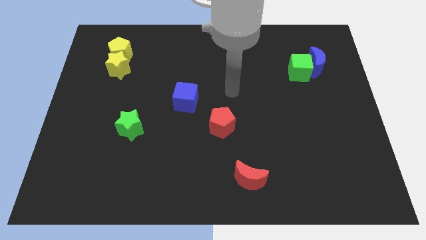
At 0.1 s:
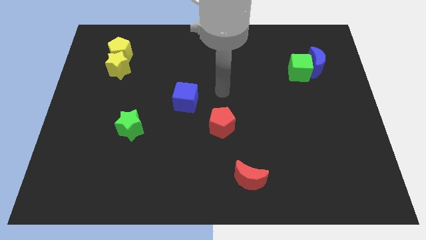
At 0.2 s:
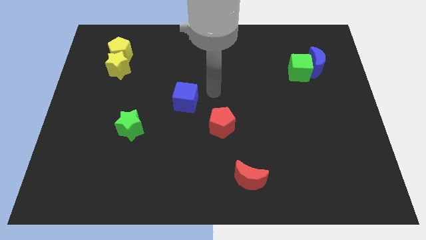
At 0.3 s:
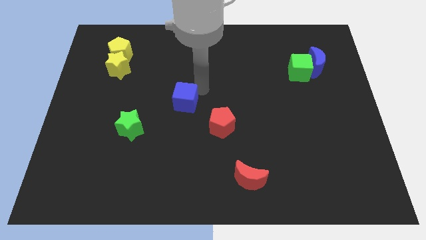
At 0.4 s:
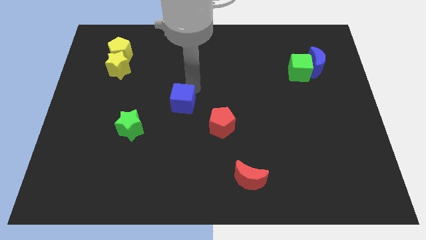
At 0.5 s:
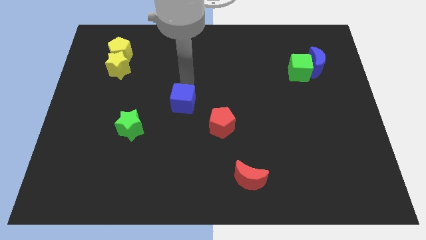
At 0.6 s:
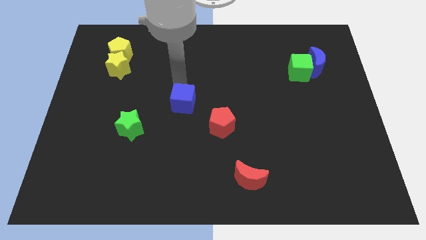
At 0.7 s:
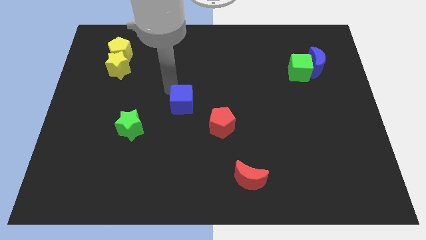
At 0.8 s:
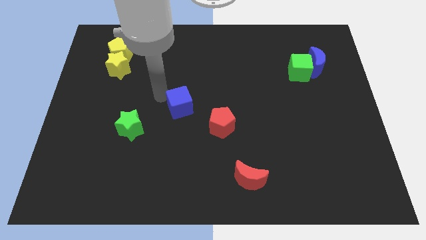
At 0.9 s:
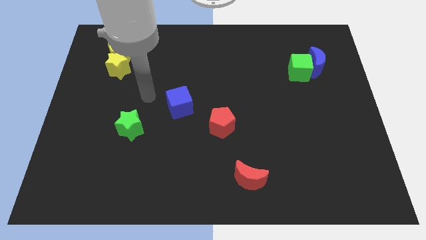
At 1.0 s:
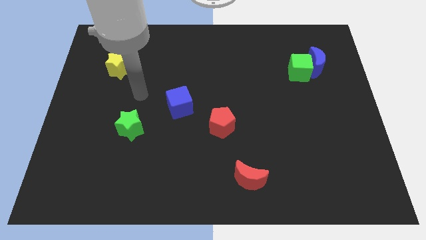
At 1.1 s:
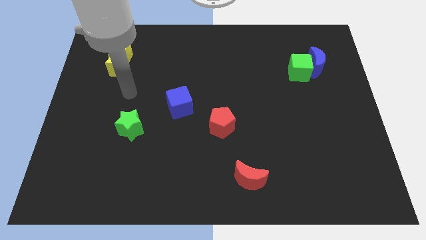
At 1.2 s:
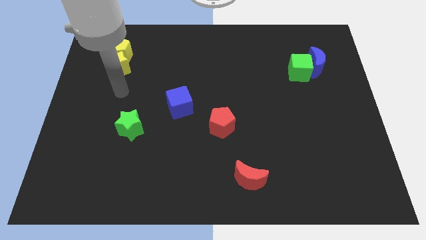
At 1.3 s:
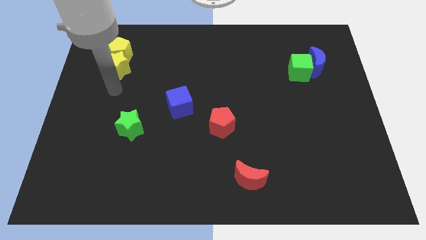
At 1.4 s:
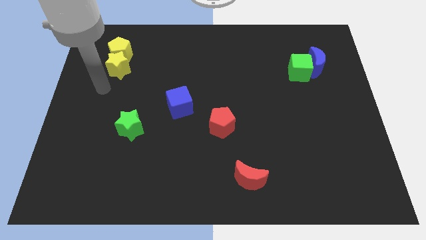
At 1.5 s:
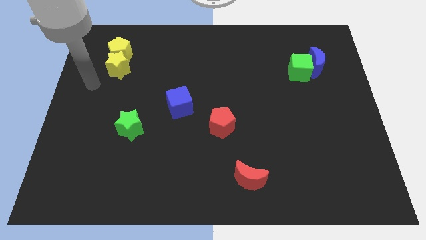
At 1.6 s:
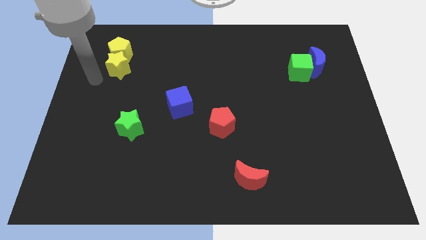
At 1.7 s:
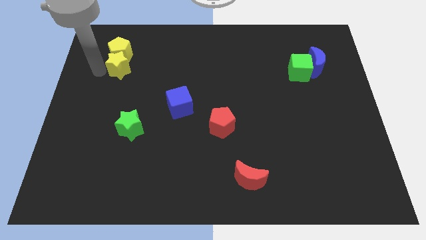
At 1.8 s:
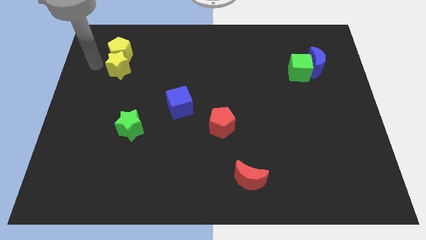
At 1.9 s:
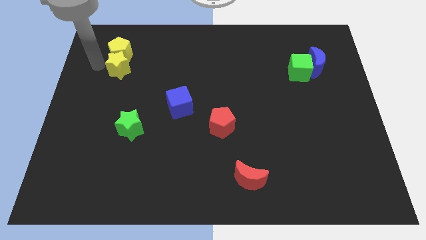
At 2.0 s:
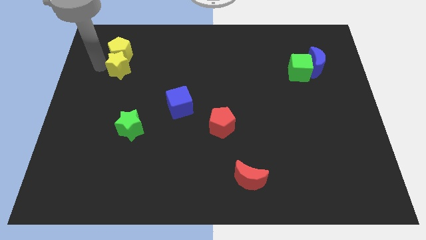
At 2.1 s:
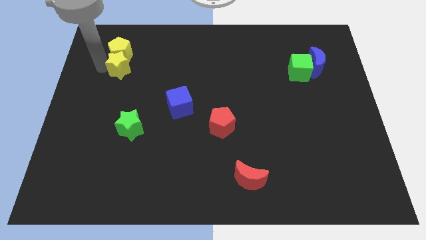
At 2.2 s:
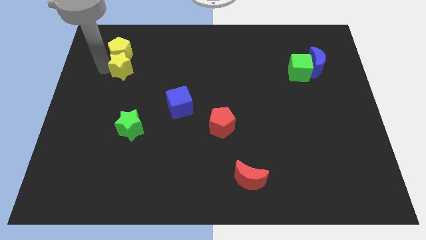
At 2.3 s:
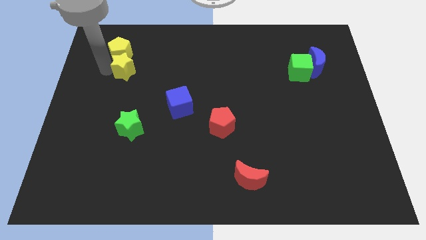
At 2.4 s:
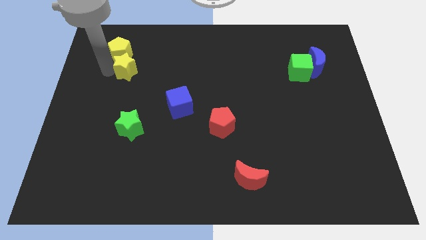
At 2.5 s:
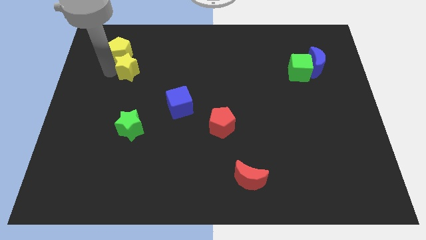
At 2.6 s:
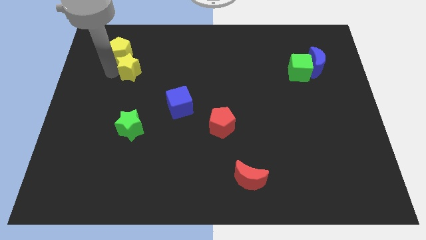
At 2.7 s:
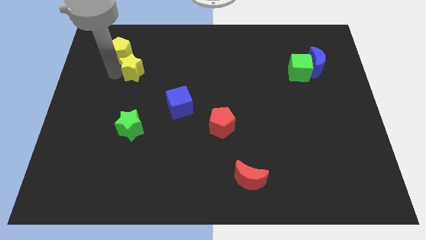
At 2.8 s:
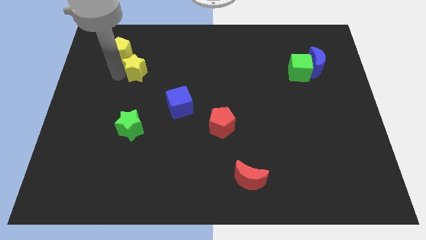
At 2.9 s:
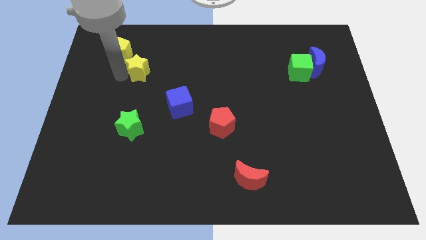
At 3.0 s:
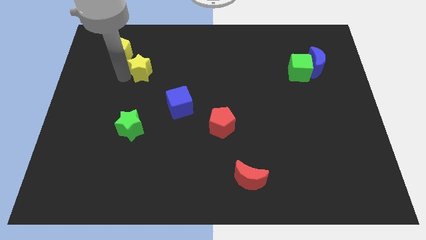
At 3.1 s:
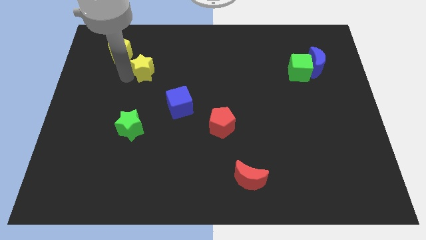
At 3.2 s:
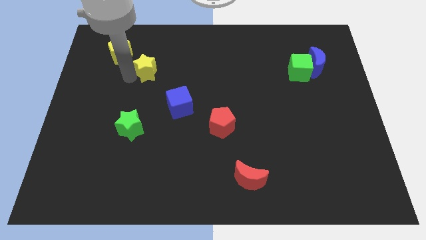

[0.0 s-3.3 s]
slightly slide the yellow star to the right

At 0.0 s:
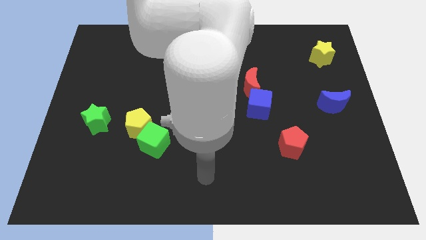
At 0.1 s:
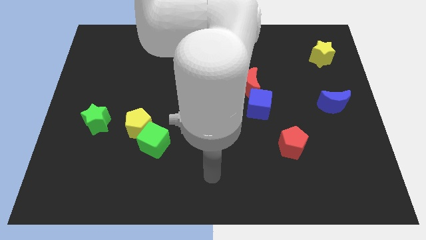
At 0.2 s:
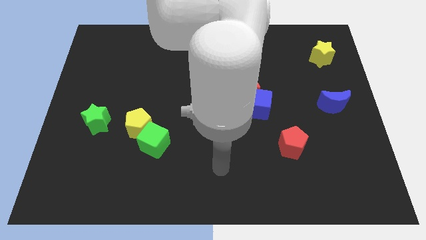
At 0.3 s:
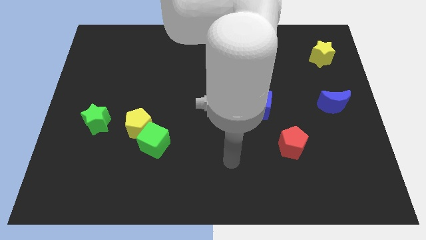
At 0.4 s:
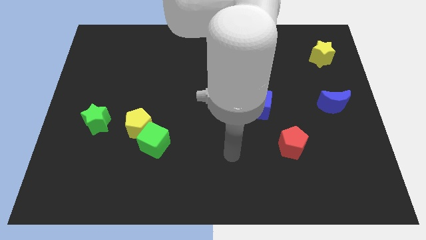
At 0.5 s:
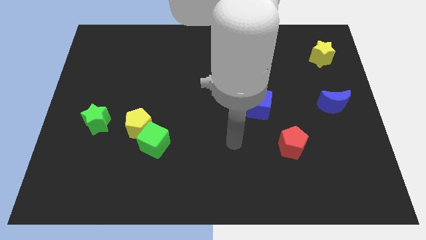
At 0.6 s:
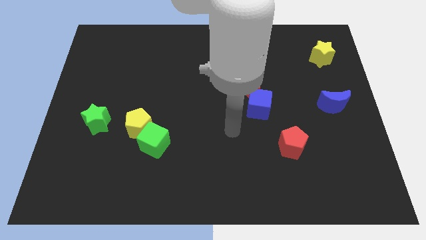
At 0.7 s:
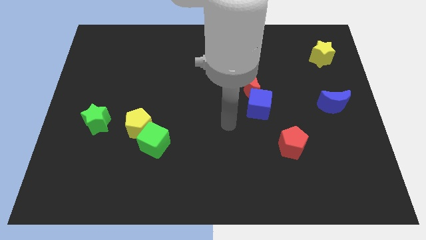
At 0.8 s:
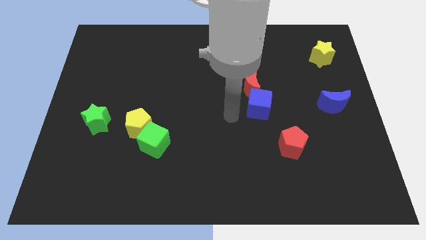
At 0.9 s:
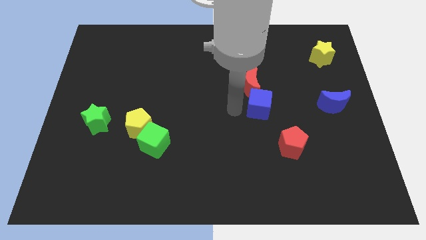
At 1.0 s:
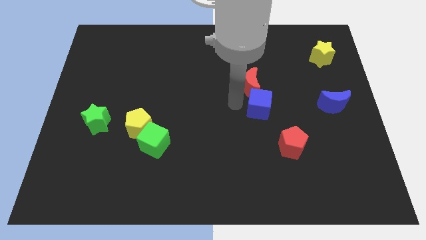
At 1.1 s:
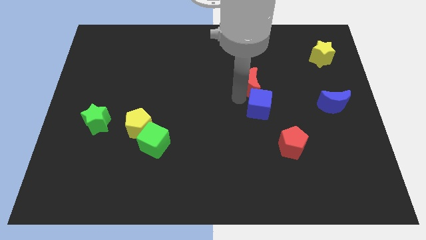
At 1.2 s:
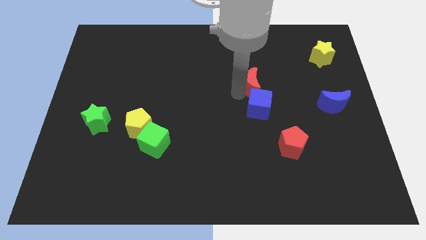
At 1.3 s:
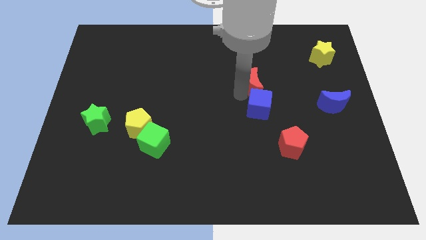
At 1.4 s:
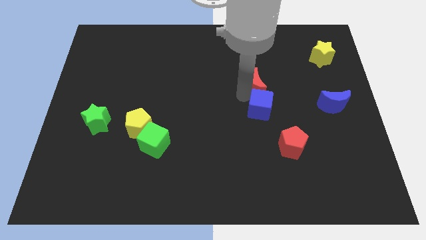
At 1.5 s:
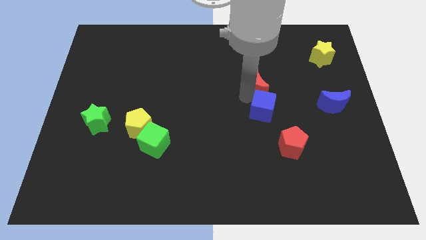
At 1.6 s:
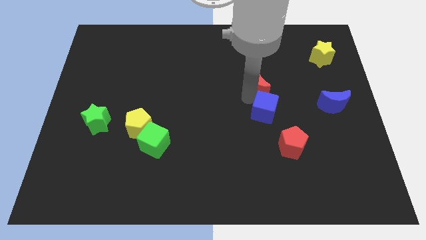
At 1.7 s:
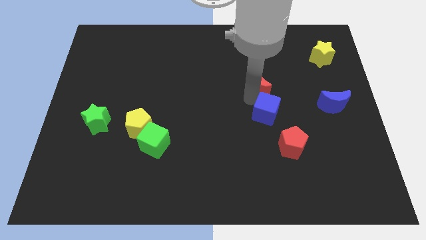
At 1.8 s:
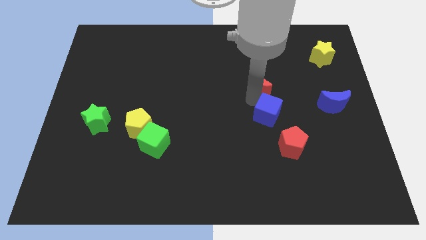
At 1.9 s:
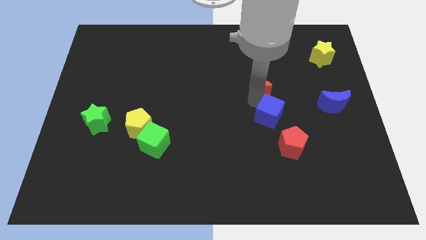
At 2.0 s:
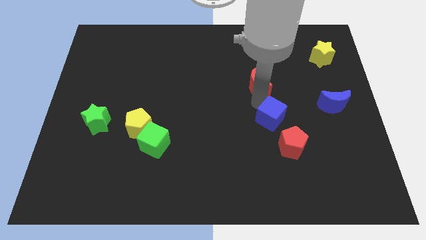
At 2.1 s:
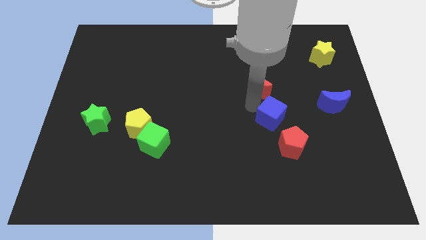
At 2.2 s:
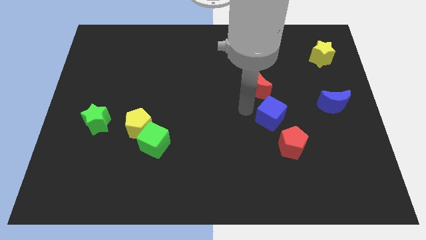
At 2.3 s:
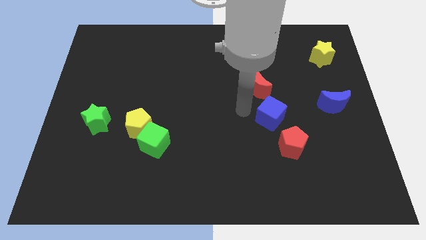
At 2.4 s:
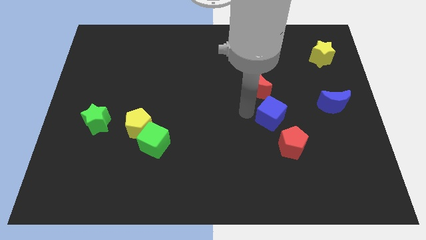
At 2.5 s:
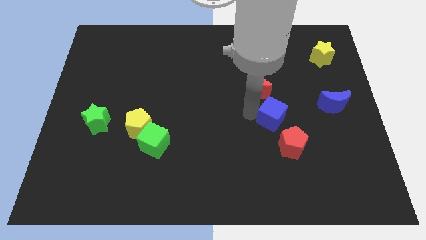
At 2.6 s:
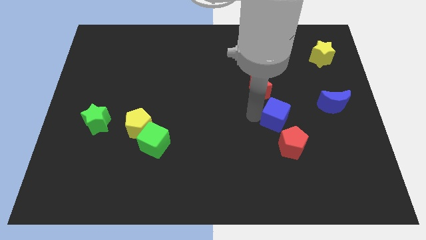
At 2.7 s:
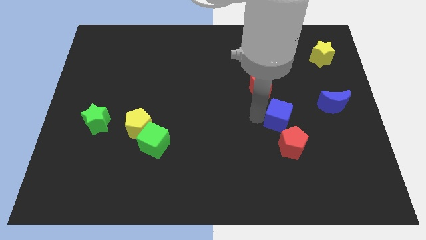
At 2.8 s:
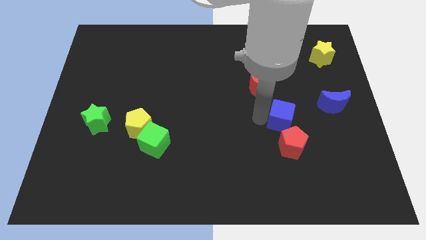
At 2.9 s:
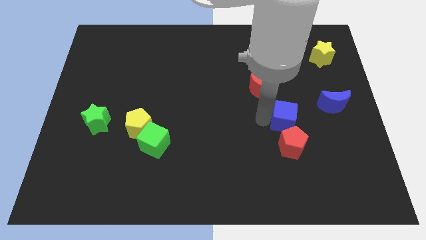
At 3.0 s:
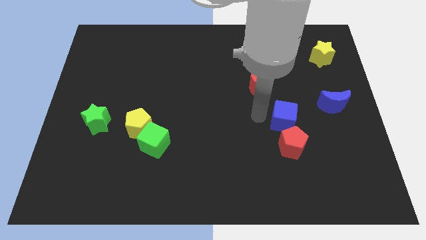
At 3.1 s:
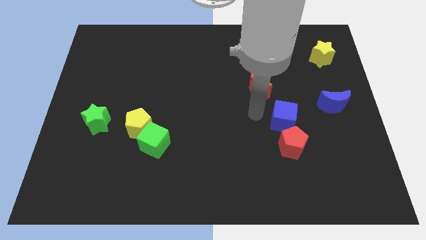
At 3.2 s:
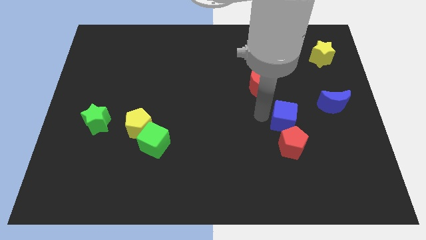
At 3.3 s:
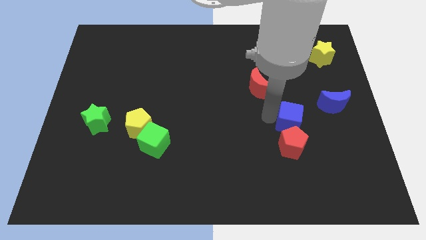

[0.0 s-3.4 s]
slightly push the blue cube down and then right

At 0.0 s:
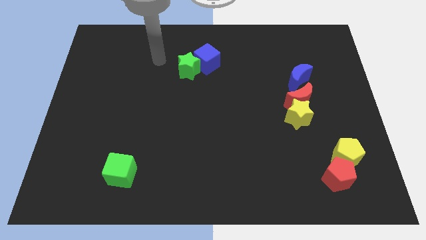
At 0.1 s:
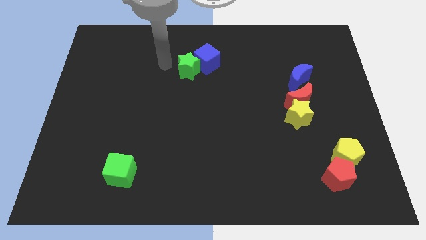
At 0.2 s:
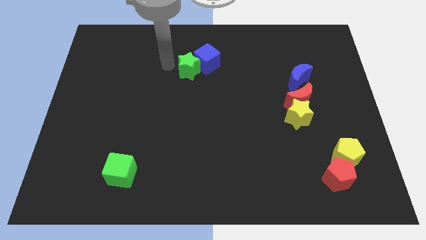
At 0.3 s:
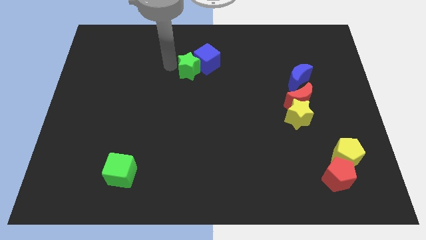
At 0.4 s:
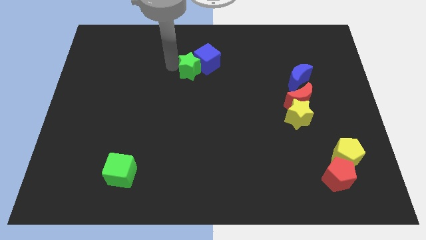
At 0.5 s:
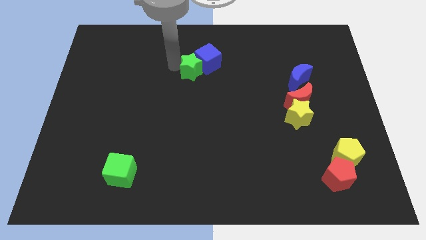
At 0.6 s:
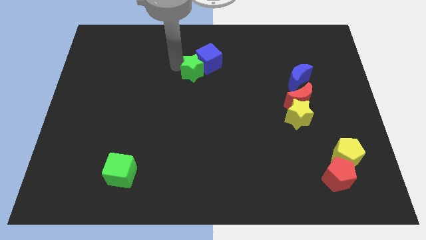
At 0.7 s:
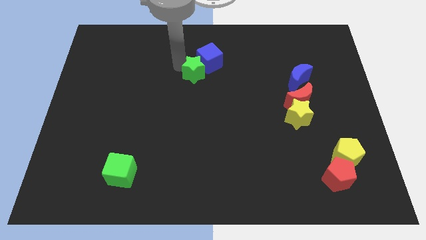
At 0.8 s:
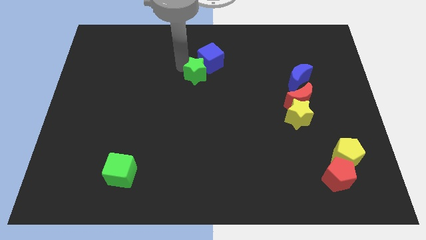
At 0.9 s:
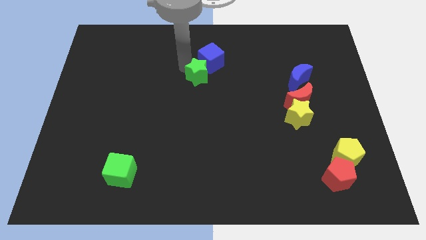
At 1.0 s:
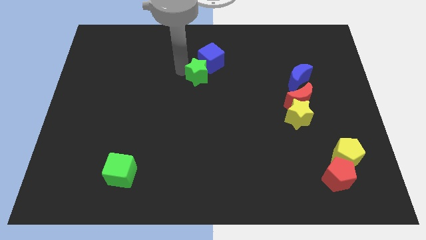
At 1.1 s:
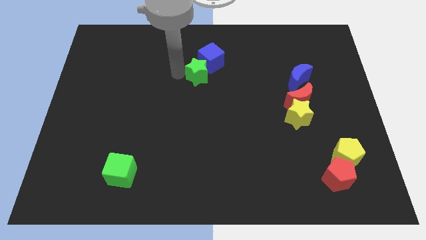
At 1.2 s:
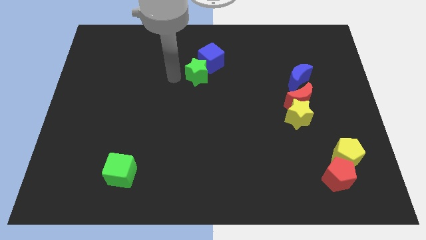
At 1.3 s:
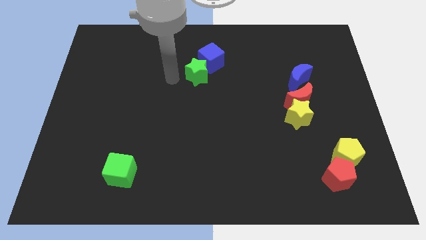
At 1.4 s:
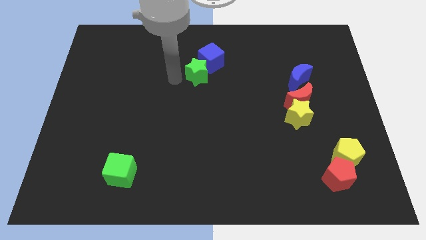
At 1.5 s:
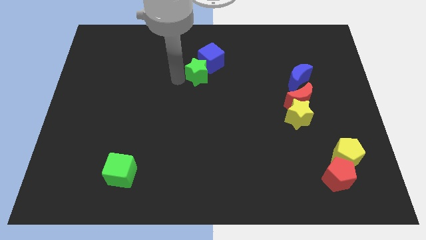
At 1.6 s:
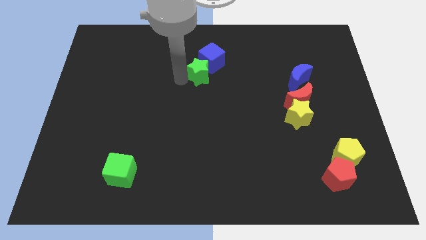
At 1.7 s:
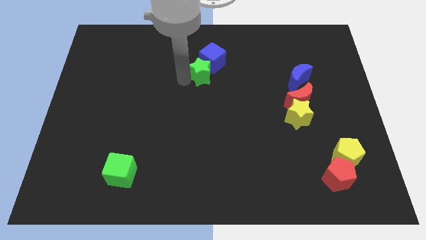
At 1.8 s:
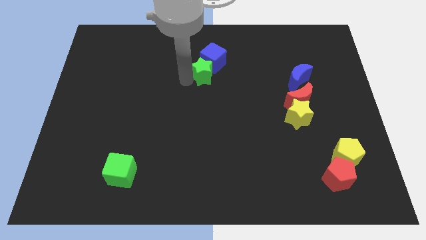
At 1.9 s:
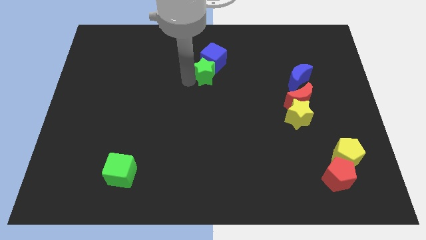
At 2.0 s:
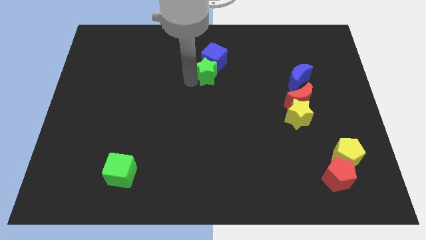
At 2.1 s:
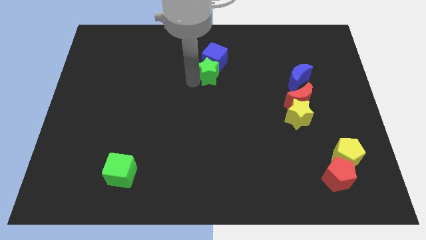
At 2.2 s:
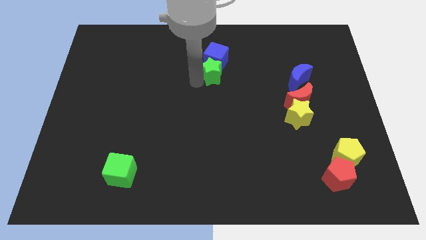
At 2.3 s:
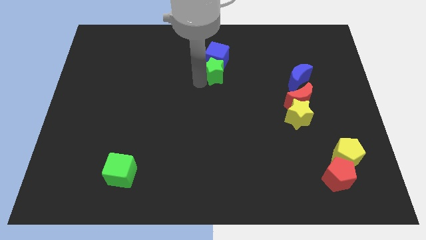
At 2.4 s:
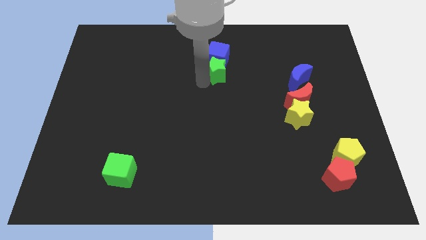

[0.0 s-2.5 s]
slide the green star a bit to the right
